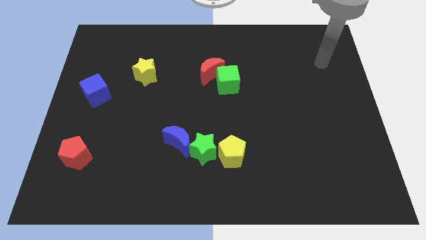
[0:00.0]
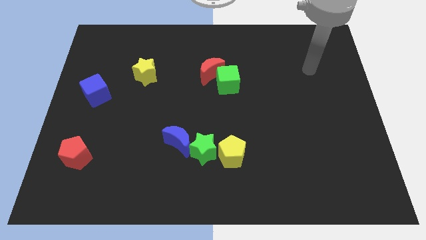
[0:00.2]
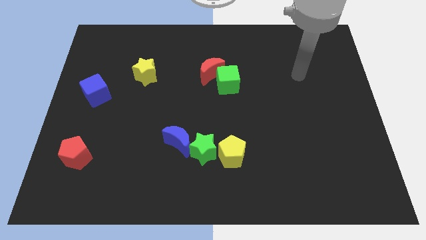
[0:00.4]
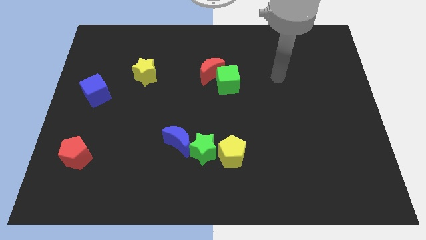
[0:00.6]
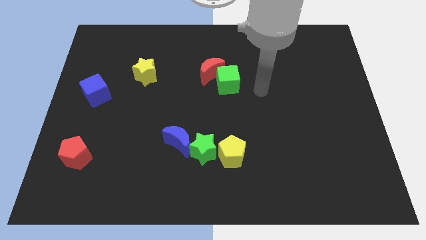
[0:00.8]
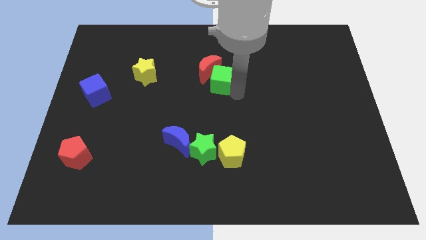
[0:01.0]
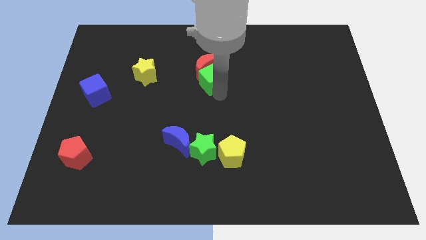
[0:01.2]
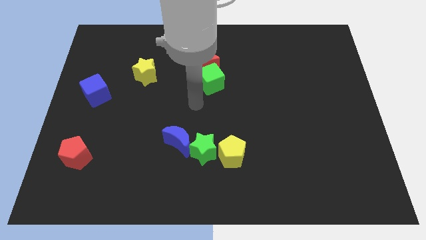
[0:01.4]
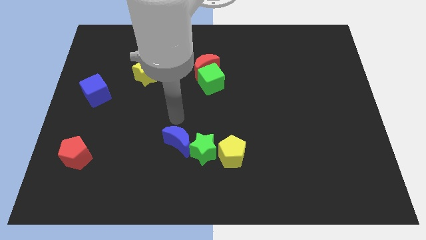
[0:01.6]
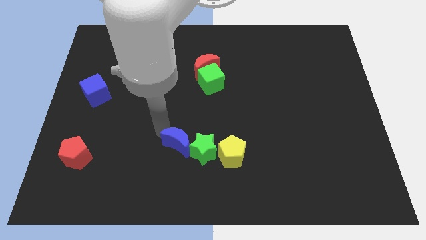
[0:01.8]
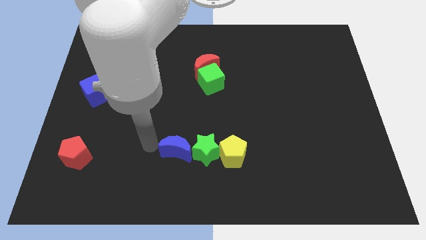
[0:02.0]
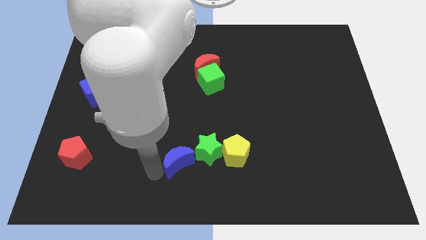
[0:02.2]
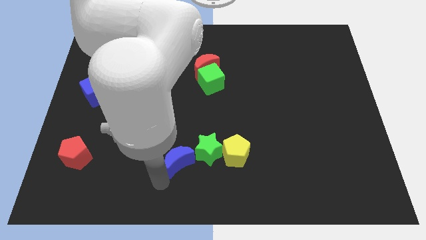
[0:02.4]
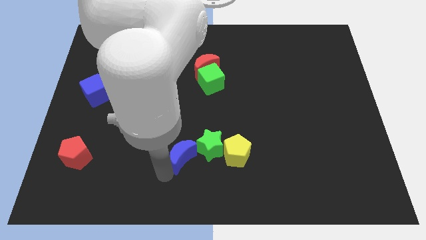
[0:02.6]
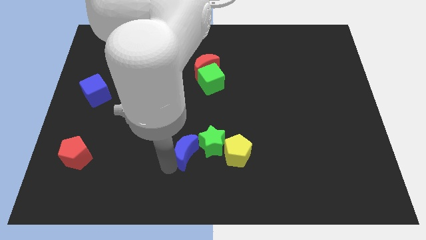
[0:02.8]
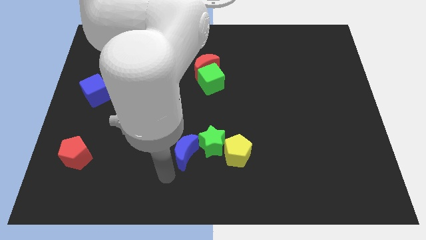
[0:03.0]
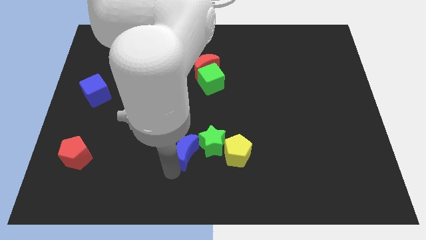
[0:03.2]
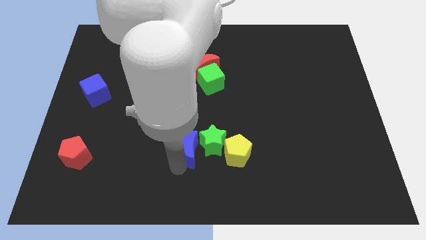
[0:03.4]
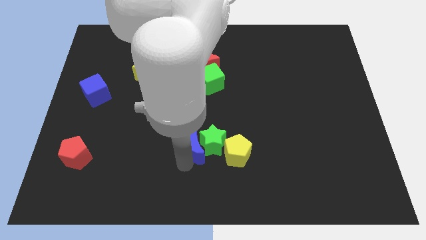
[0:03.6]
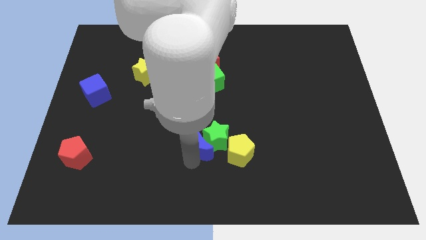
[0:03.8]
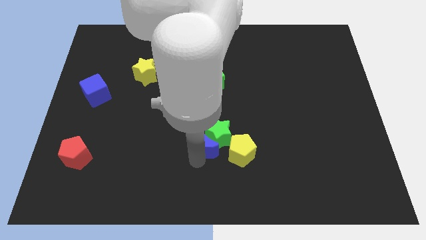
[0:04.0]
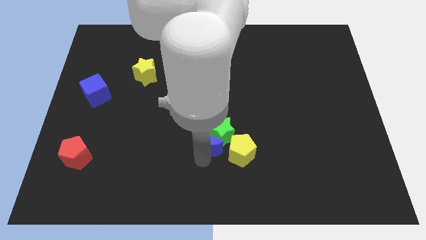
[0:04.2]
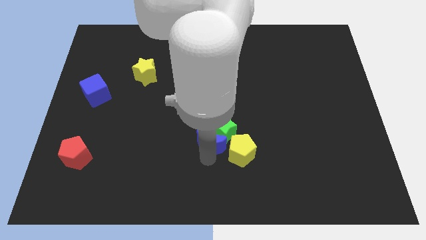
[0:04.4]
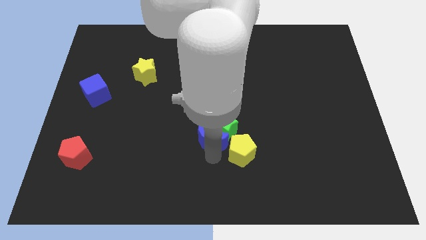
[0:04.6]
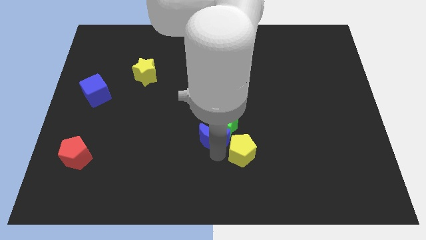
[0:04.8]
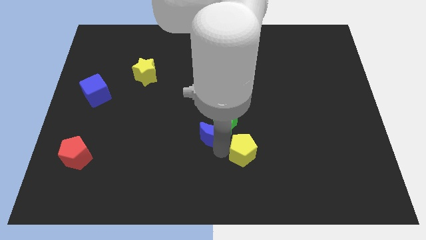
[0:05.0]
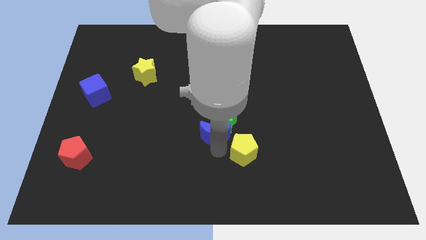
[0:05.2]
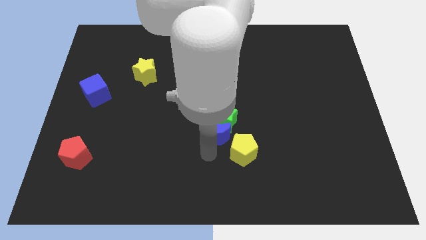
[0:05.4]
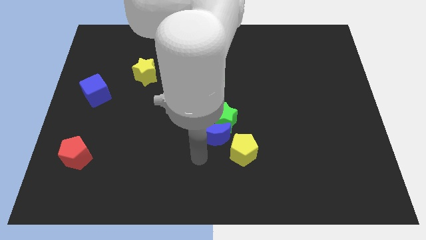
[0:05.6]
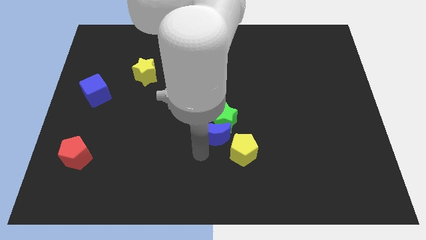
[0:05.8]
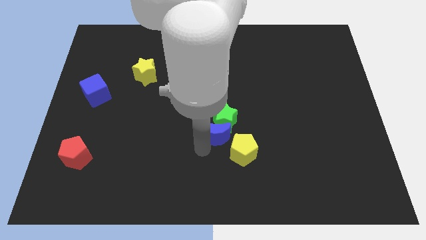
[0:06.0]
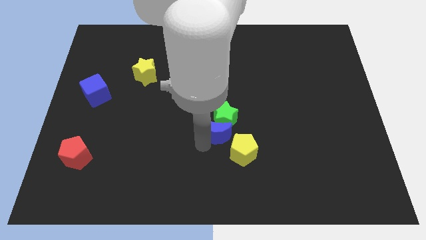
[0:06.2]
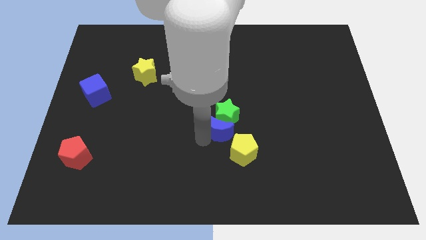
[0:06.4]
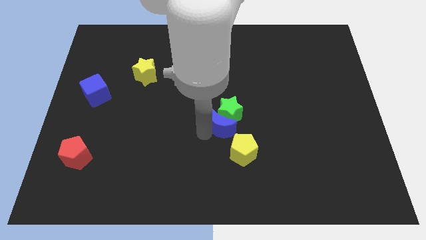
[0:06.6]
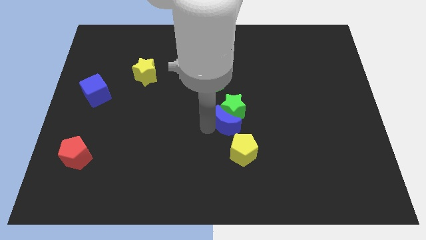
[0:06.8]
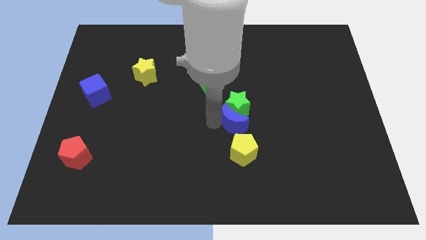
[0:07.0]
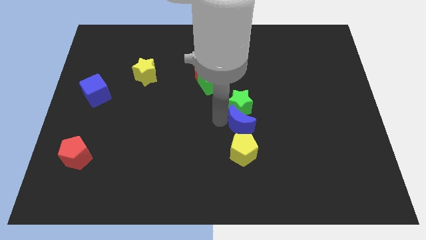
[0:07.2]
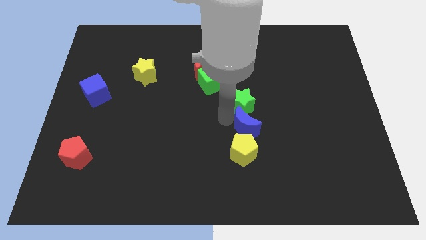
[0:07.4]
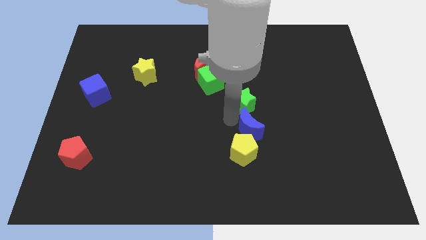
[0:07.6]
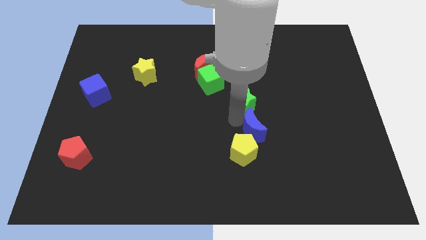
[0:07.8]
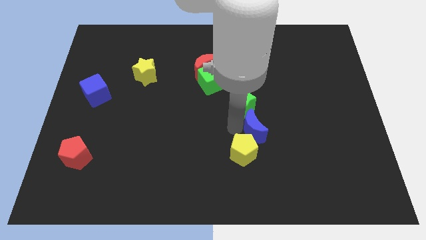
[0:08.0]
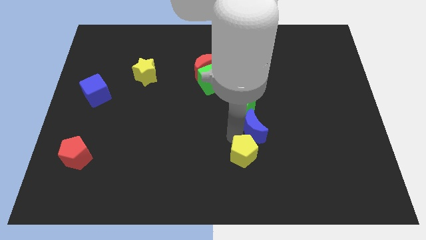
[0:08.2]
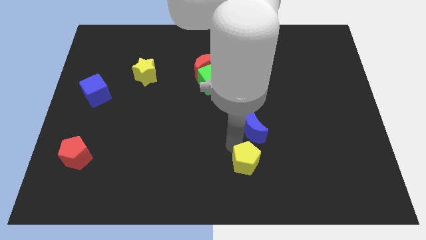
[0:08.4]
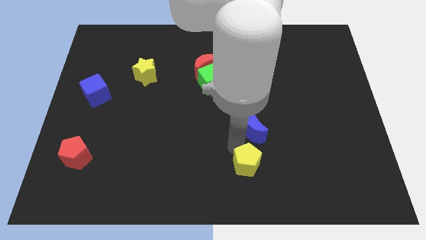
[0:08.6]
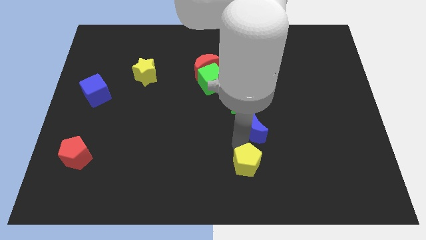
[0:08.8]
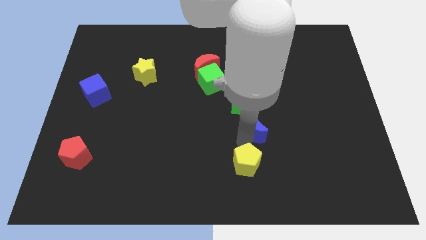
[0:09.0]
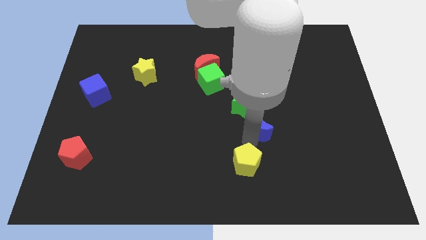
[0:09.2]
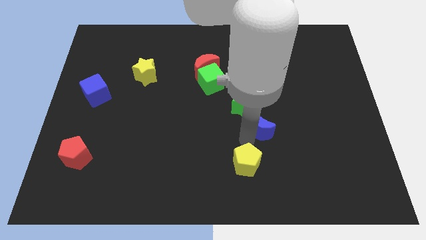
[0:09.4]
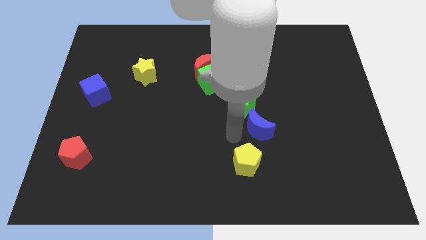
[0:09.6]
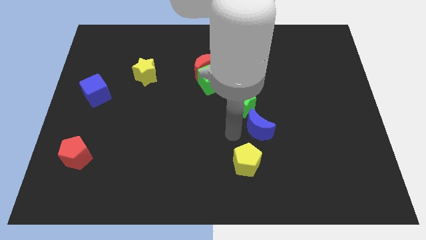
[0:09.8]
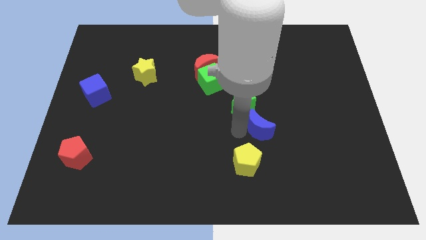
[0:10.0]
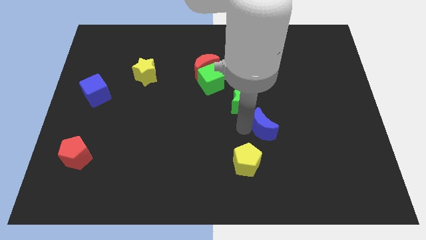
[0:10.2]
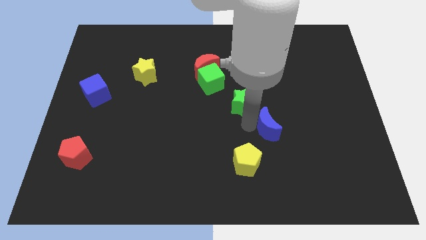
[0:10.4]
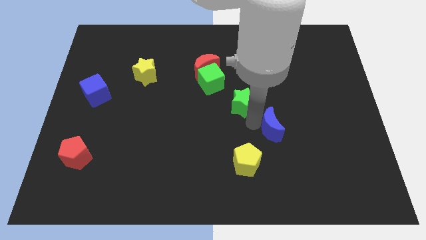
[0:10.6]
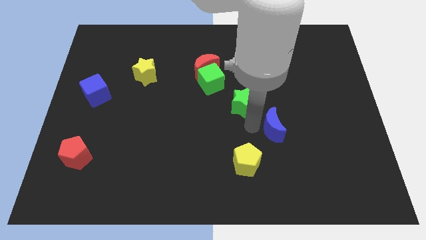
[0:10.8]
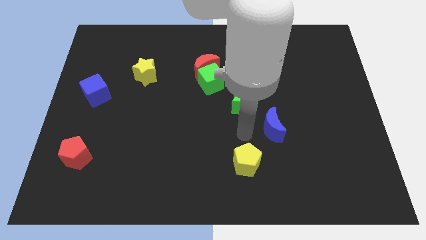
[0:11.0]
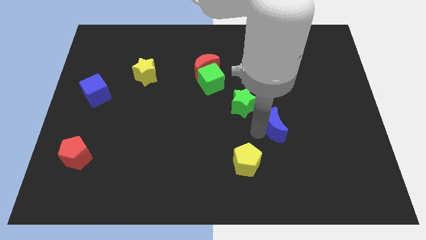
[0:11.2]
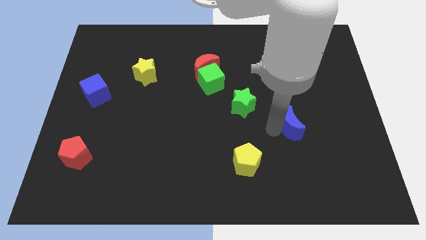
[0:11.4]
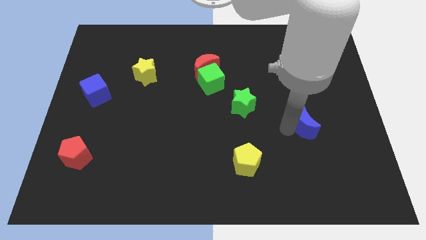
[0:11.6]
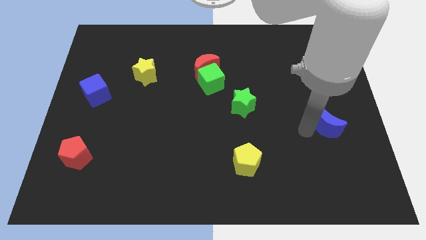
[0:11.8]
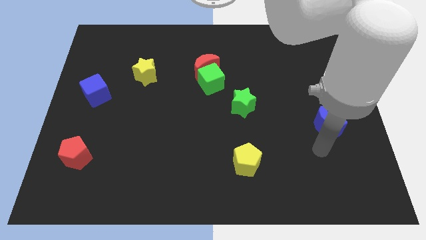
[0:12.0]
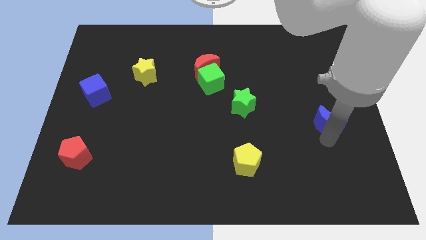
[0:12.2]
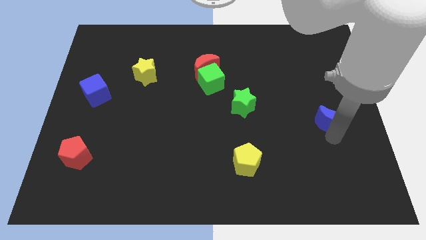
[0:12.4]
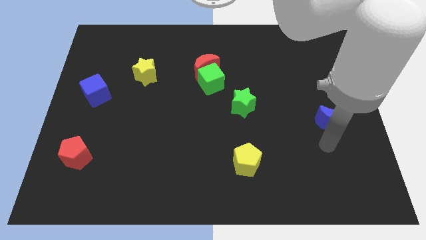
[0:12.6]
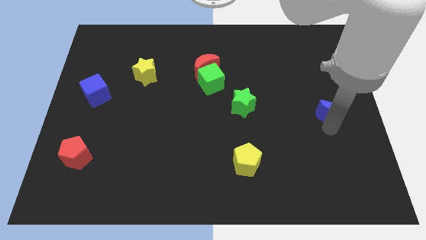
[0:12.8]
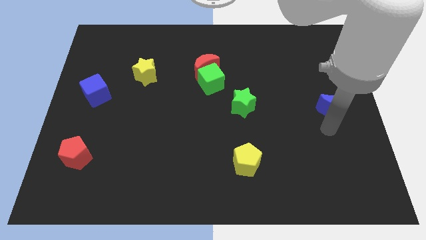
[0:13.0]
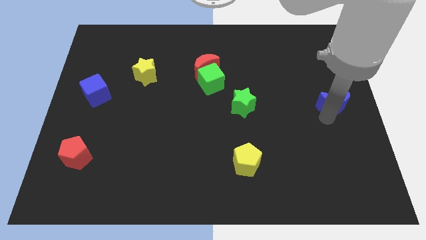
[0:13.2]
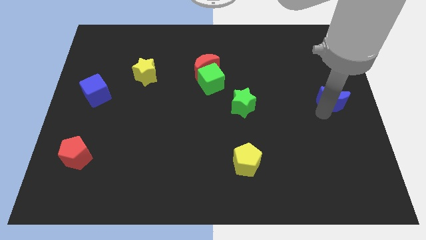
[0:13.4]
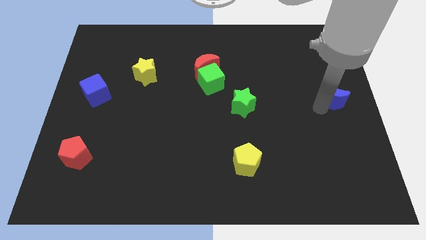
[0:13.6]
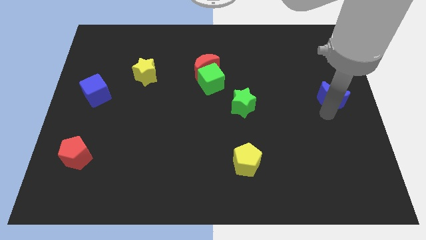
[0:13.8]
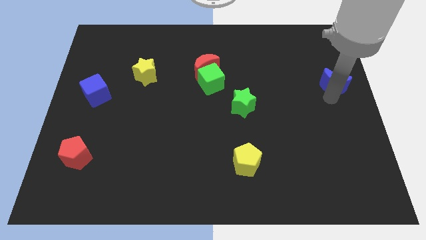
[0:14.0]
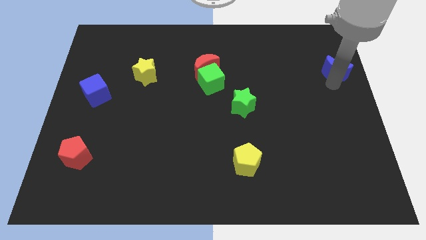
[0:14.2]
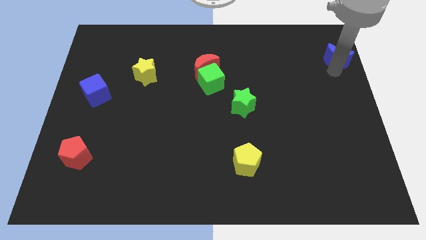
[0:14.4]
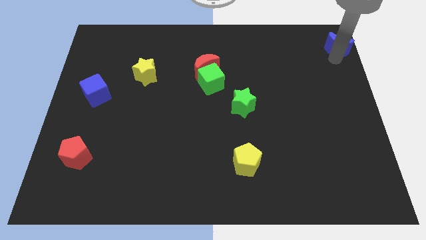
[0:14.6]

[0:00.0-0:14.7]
push the blue moon to the top right corner
